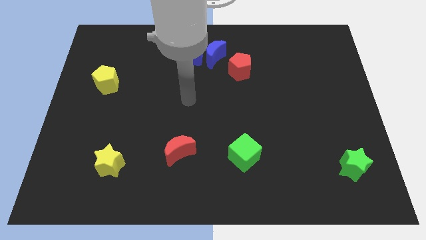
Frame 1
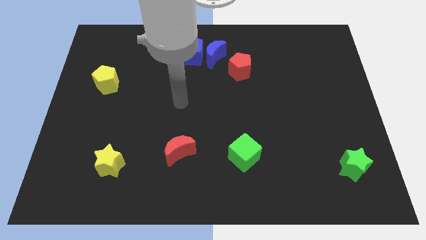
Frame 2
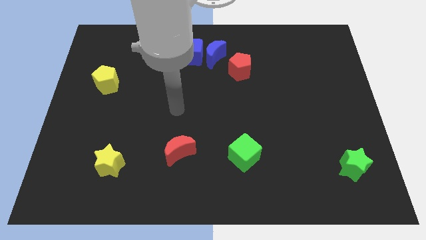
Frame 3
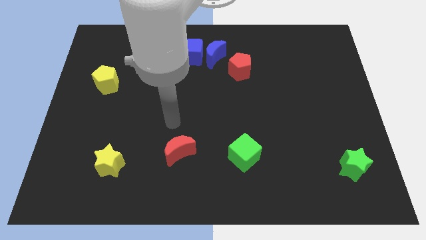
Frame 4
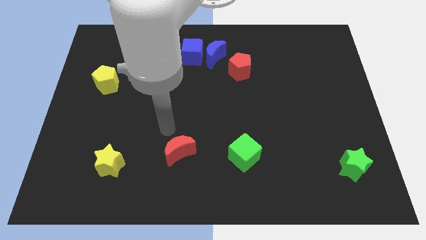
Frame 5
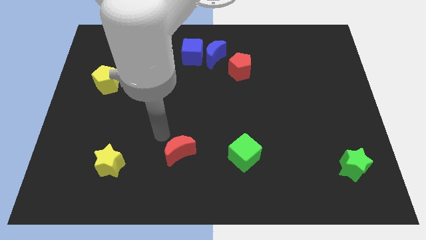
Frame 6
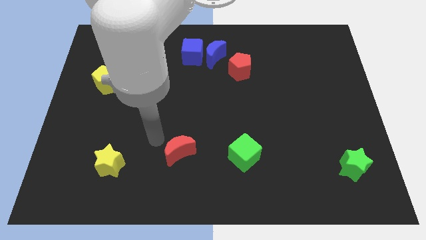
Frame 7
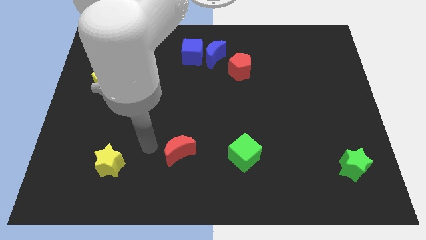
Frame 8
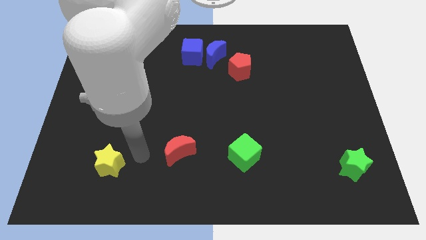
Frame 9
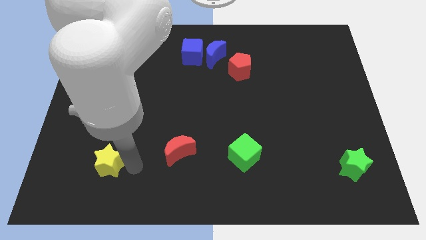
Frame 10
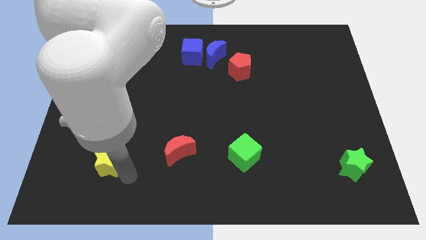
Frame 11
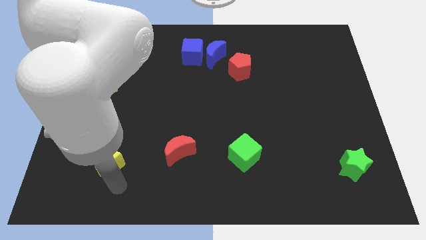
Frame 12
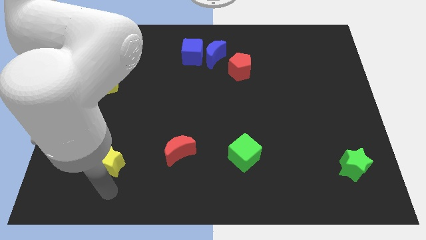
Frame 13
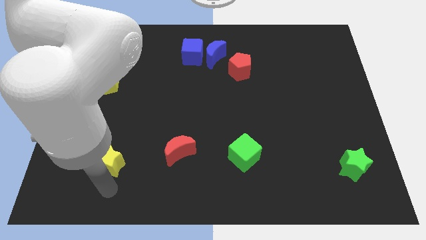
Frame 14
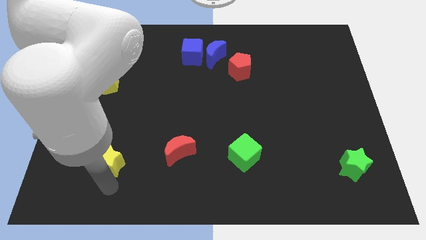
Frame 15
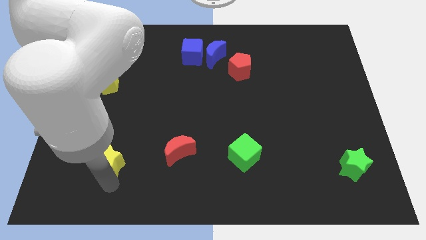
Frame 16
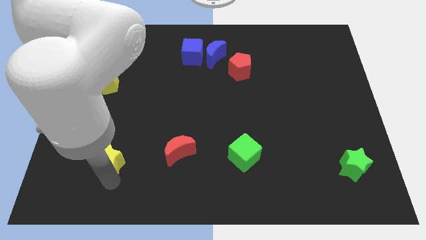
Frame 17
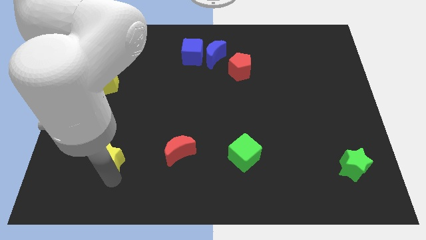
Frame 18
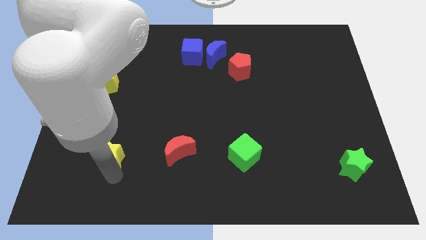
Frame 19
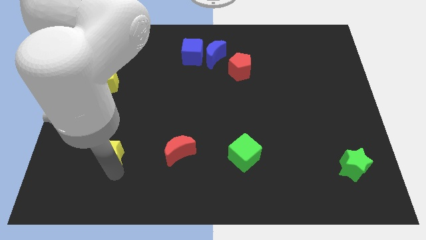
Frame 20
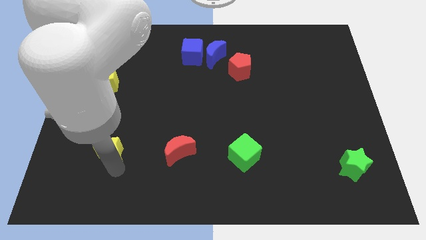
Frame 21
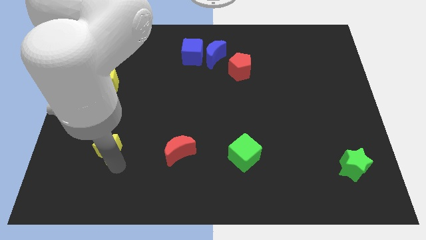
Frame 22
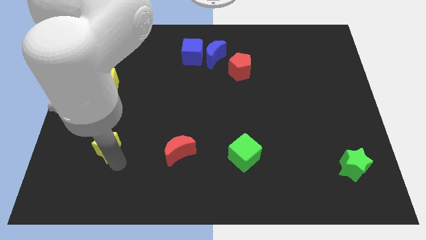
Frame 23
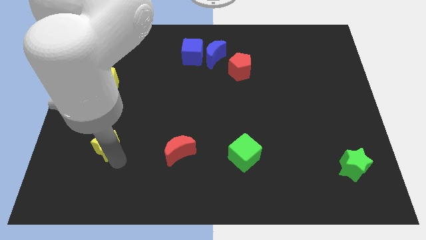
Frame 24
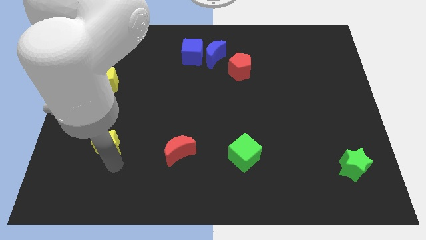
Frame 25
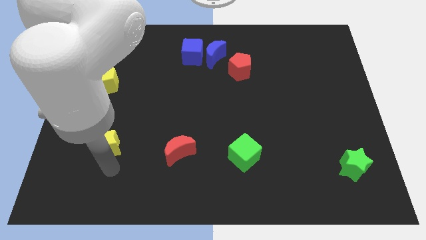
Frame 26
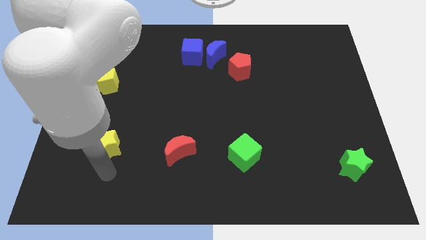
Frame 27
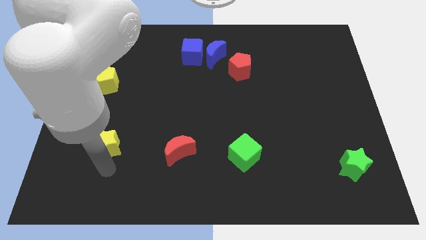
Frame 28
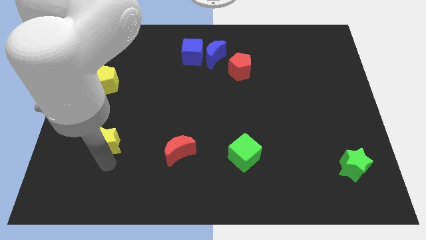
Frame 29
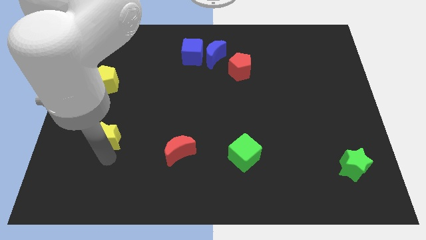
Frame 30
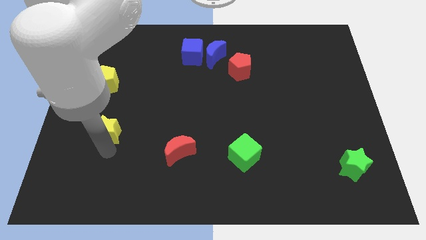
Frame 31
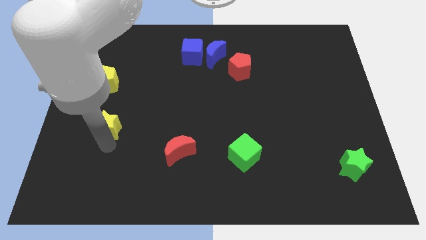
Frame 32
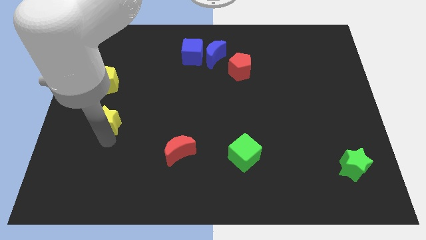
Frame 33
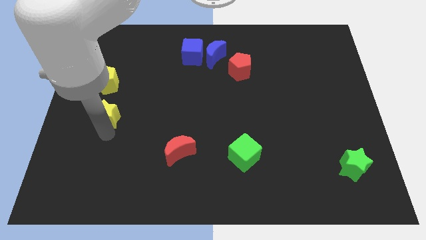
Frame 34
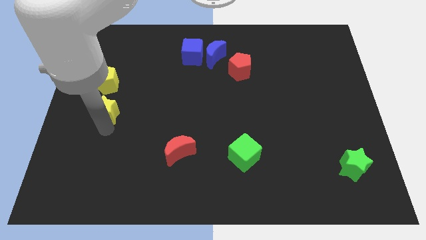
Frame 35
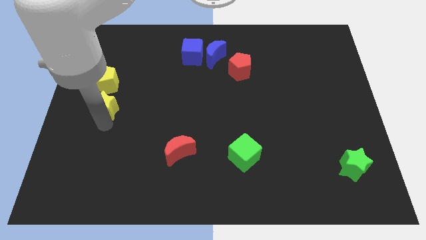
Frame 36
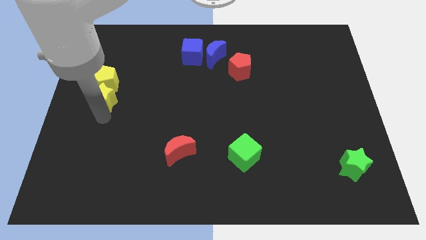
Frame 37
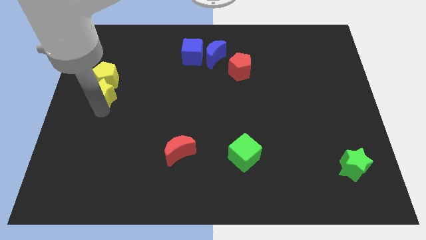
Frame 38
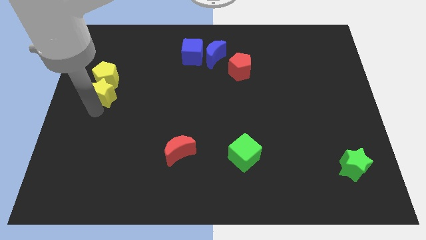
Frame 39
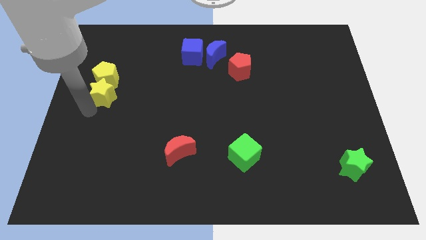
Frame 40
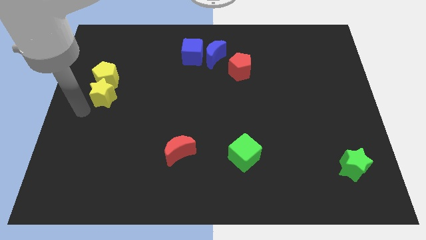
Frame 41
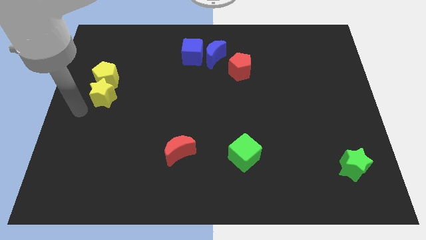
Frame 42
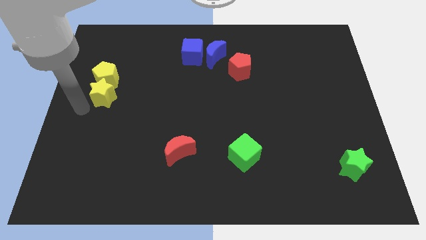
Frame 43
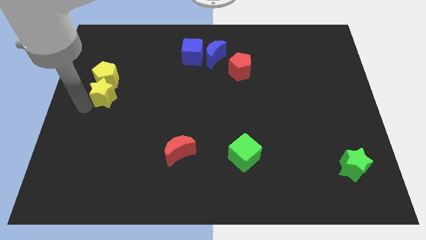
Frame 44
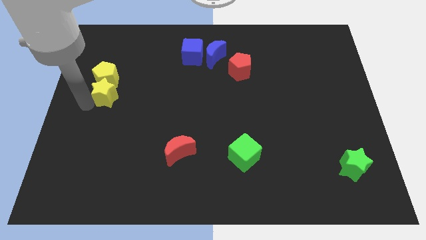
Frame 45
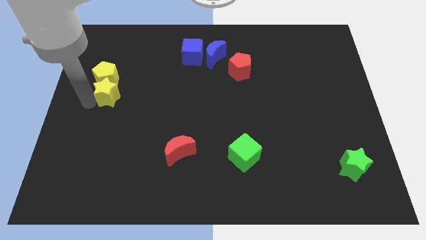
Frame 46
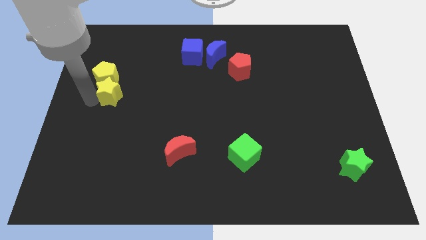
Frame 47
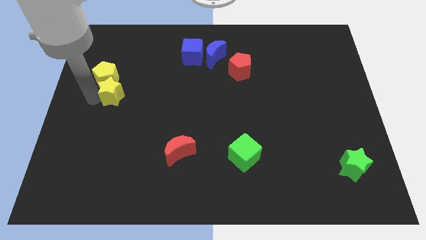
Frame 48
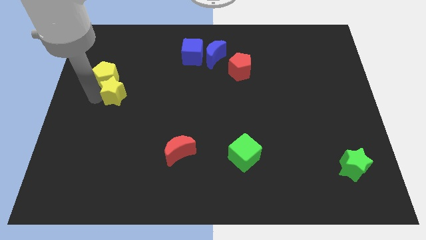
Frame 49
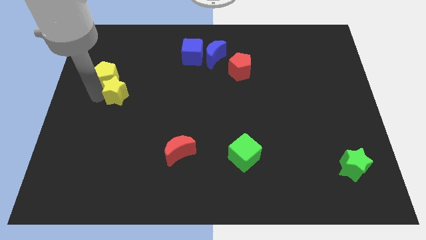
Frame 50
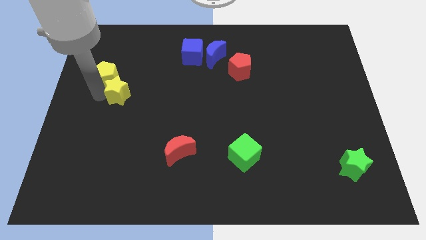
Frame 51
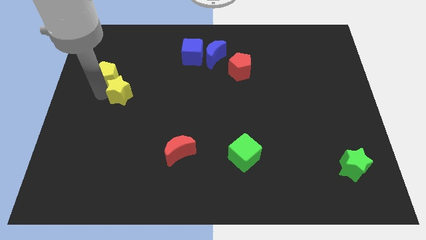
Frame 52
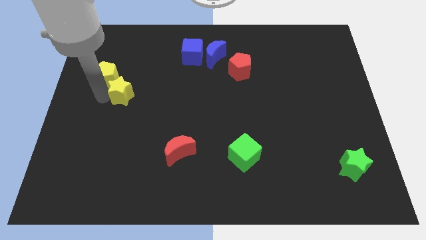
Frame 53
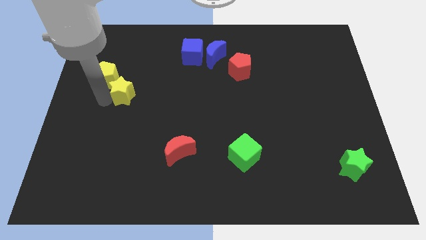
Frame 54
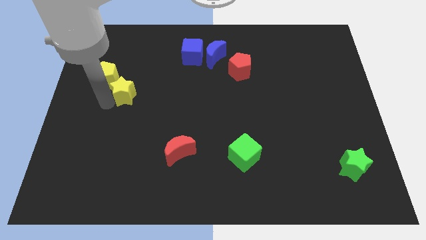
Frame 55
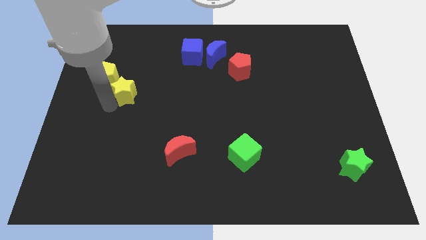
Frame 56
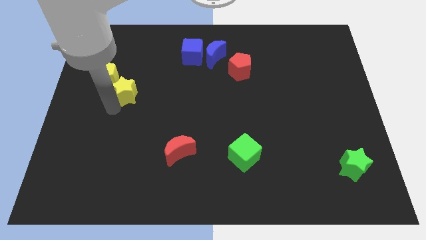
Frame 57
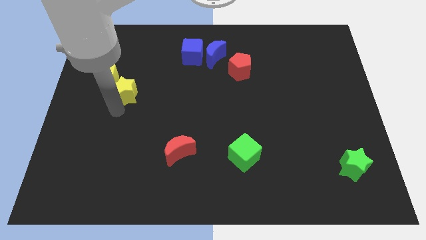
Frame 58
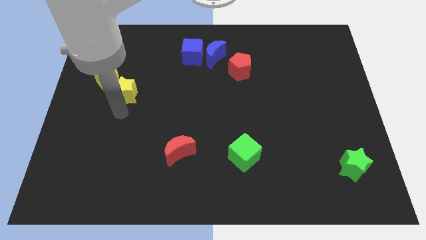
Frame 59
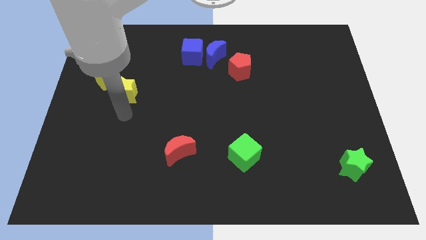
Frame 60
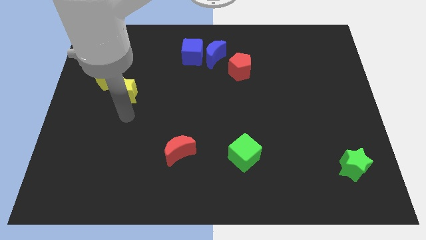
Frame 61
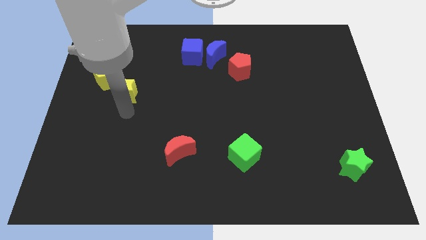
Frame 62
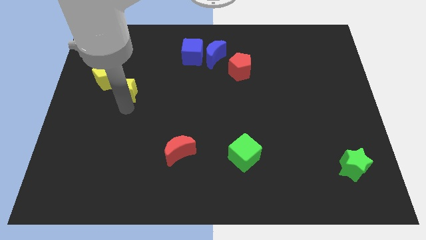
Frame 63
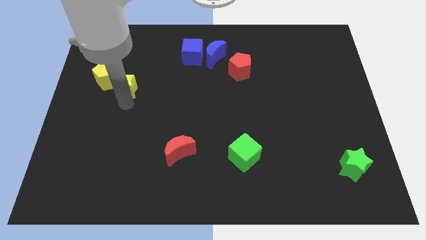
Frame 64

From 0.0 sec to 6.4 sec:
move the yellow star up

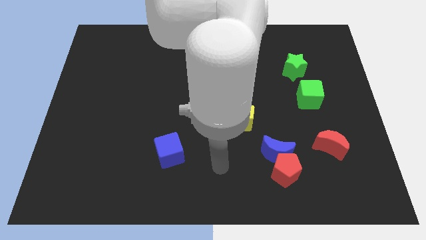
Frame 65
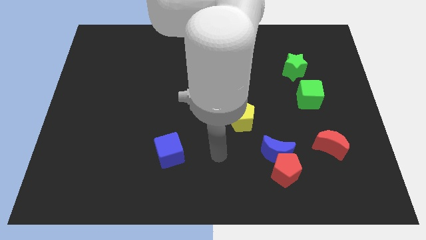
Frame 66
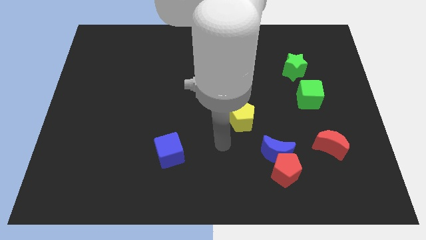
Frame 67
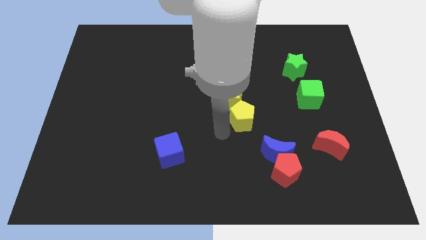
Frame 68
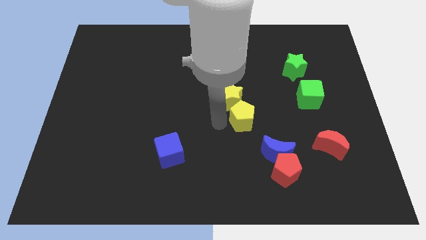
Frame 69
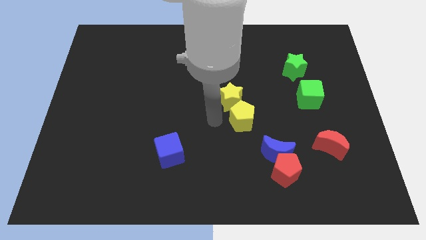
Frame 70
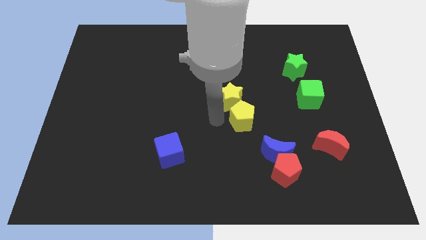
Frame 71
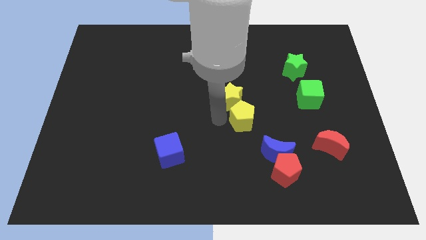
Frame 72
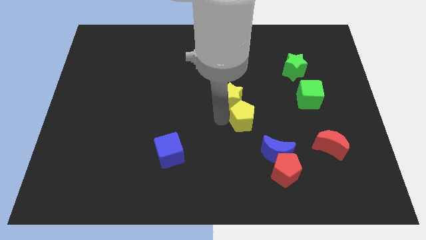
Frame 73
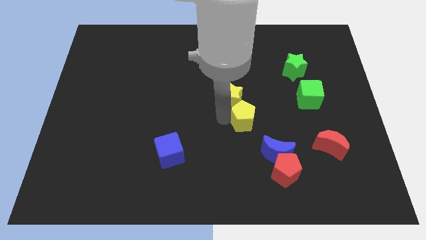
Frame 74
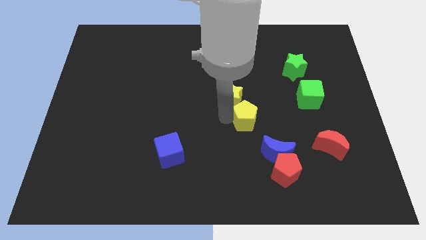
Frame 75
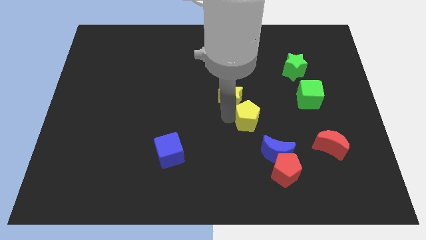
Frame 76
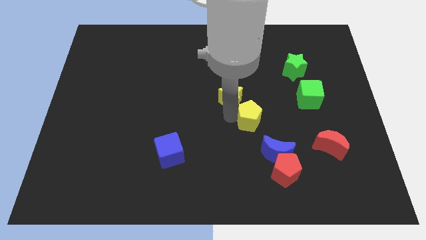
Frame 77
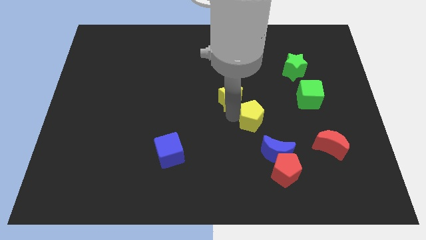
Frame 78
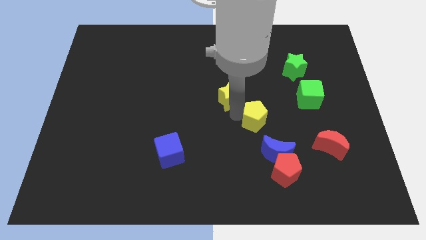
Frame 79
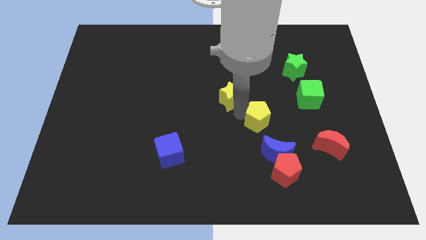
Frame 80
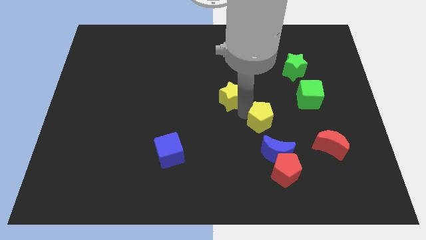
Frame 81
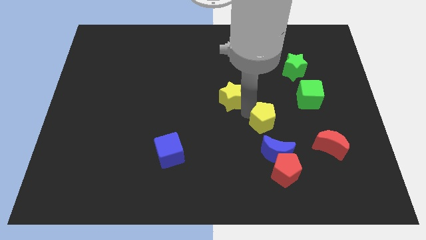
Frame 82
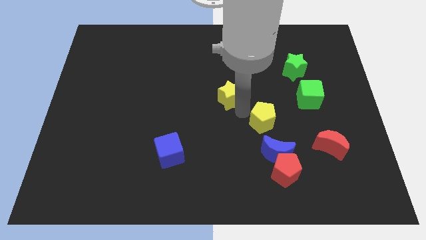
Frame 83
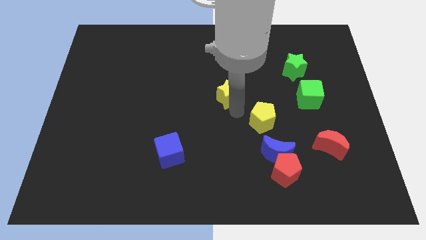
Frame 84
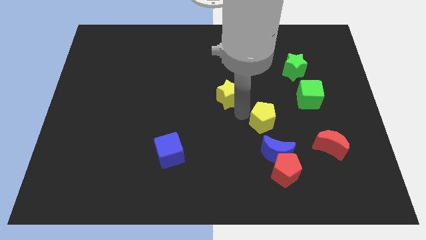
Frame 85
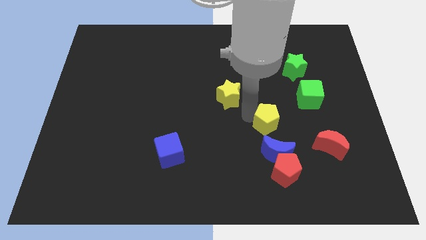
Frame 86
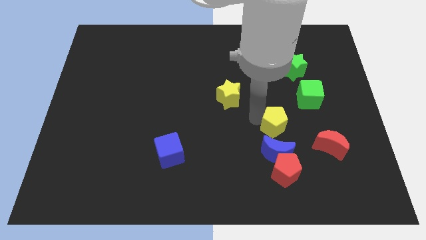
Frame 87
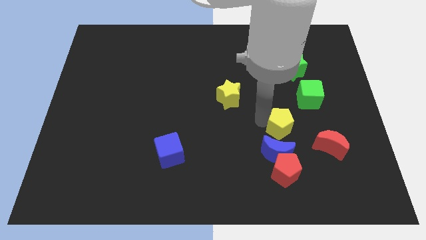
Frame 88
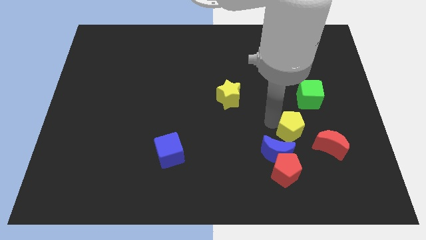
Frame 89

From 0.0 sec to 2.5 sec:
push the yellow pentagon diagonally down and right a little bit
